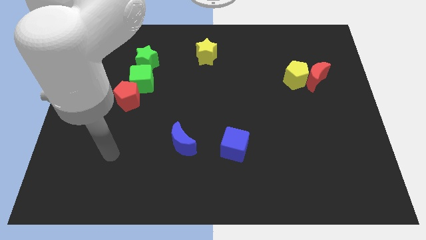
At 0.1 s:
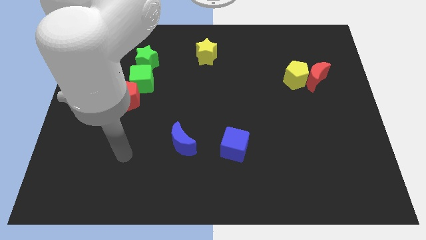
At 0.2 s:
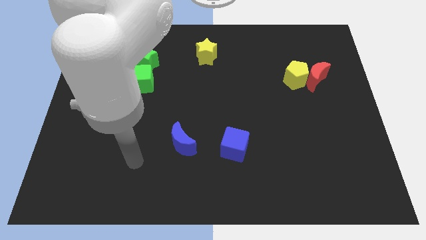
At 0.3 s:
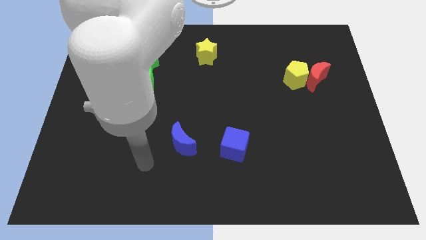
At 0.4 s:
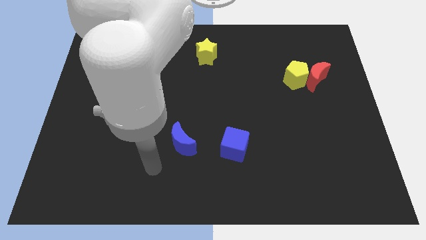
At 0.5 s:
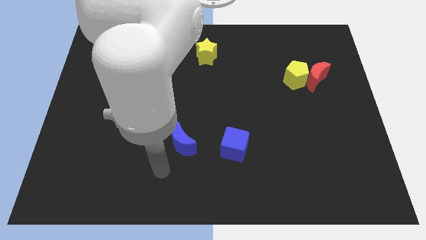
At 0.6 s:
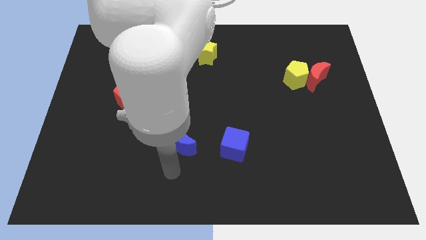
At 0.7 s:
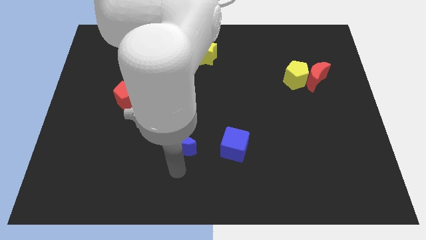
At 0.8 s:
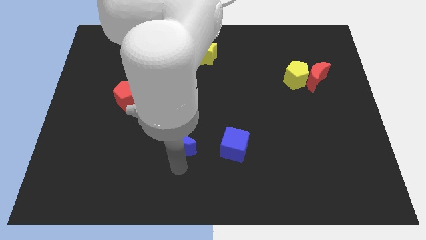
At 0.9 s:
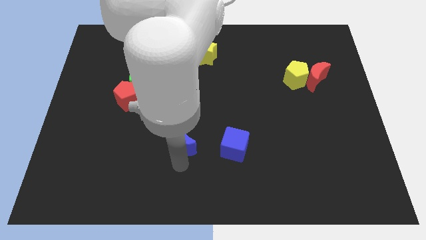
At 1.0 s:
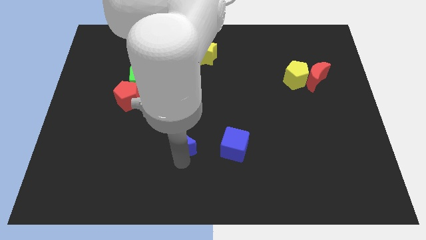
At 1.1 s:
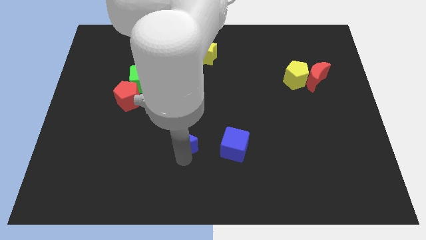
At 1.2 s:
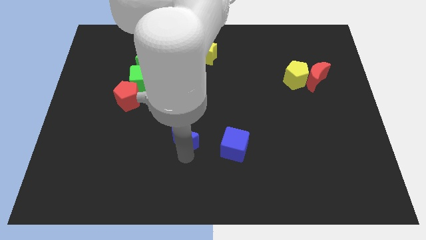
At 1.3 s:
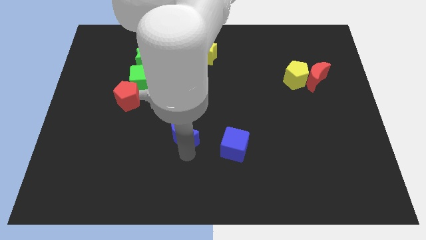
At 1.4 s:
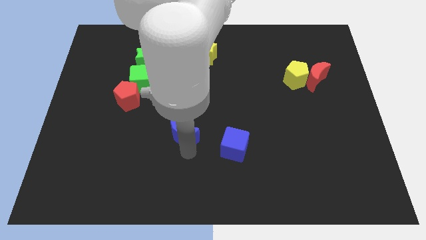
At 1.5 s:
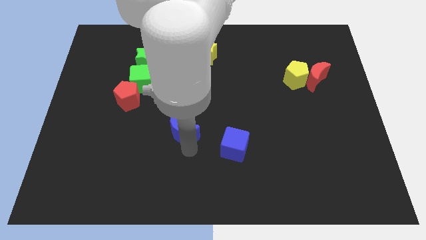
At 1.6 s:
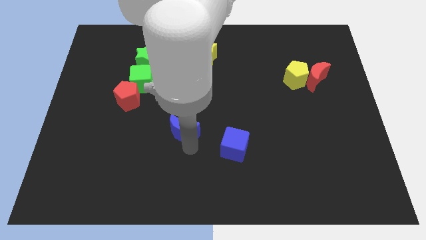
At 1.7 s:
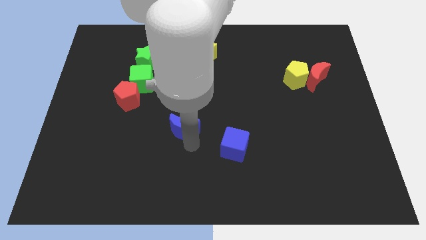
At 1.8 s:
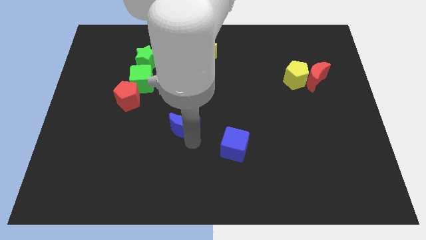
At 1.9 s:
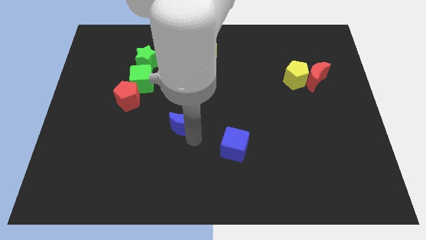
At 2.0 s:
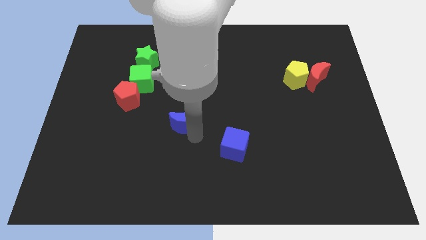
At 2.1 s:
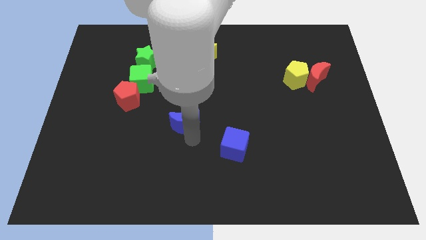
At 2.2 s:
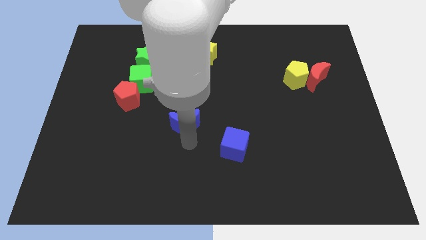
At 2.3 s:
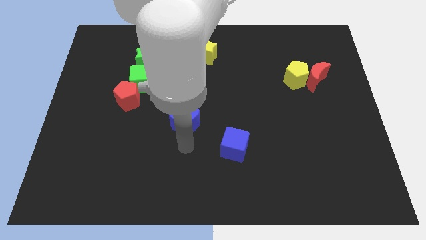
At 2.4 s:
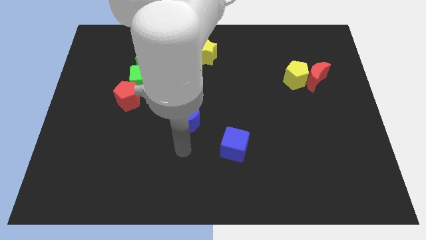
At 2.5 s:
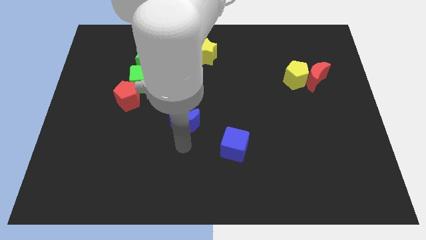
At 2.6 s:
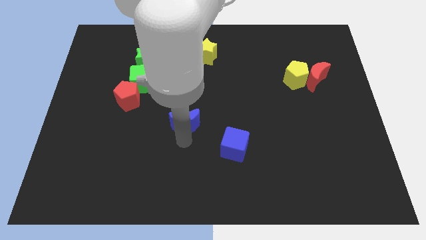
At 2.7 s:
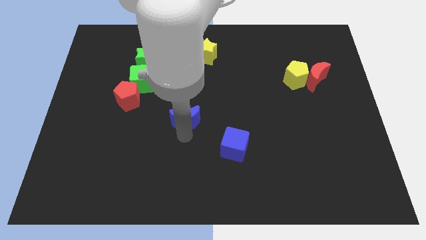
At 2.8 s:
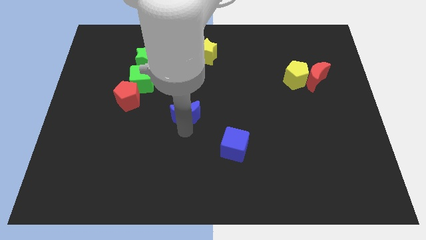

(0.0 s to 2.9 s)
move the blue moon upwards a little

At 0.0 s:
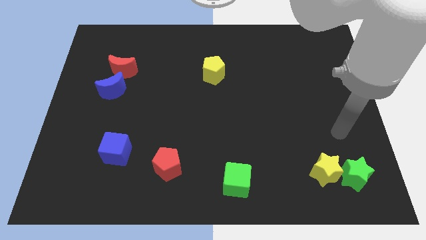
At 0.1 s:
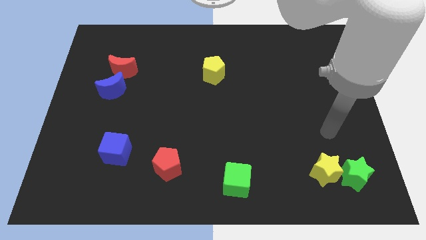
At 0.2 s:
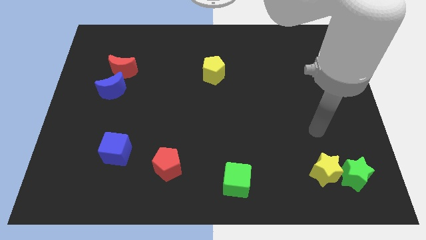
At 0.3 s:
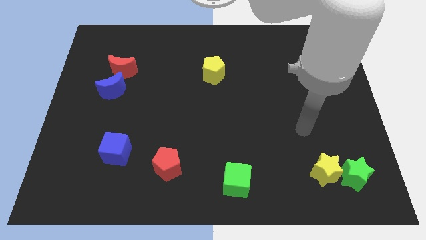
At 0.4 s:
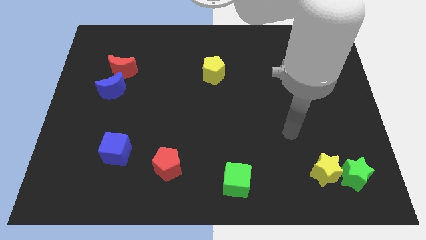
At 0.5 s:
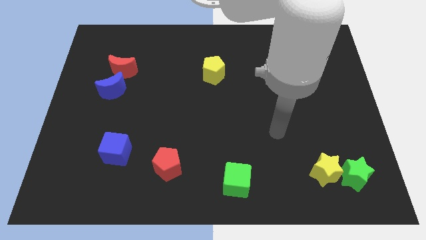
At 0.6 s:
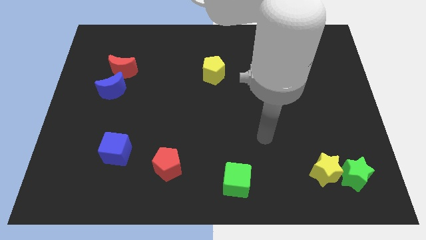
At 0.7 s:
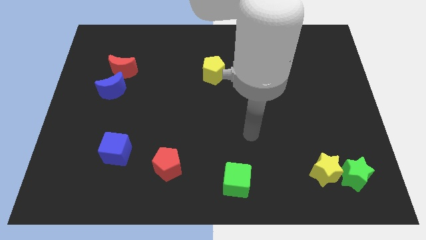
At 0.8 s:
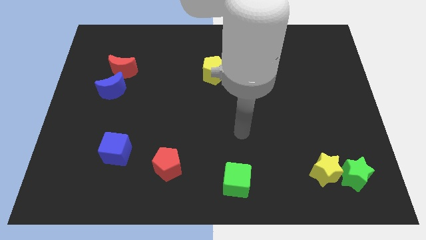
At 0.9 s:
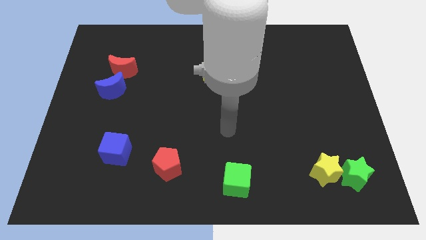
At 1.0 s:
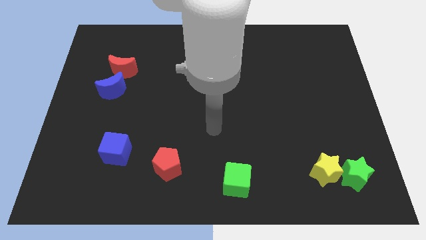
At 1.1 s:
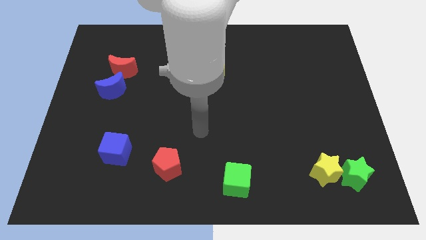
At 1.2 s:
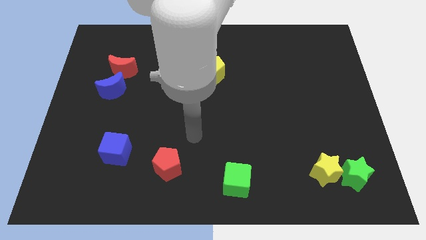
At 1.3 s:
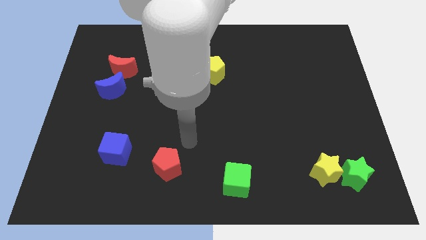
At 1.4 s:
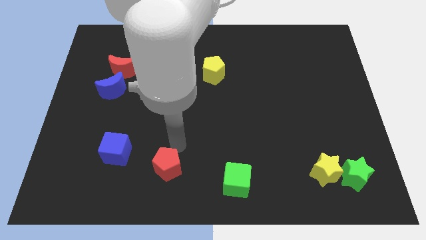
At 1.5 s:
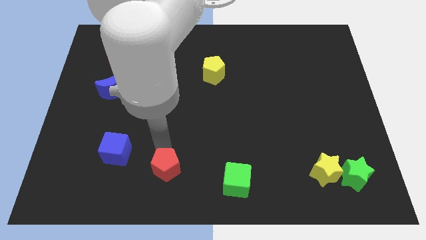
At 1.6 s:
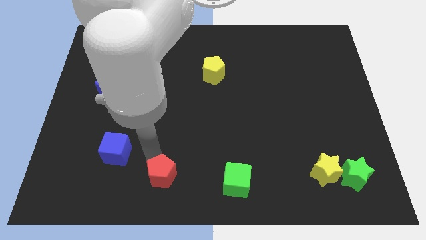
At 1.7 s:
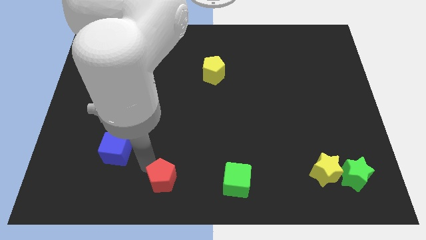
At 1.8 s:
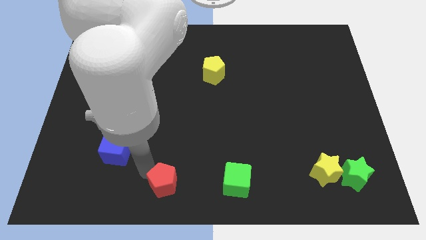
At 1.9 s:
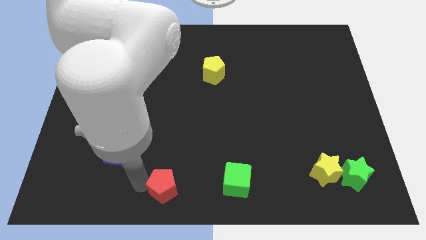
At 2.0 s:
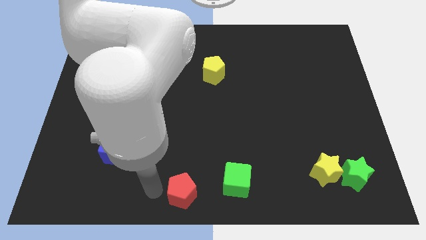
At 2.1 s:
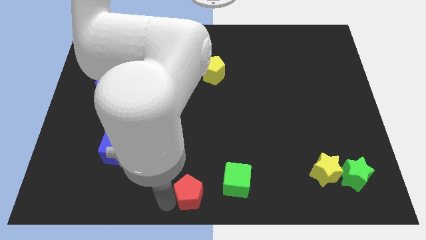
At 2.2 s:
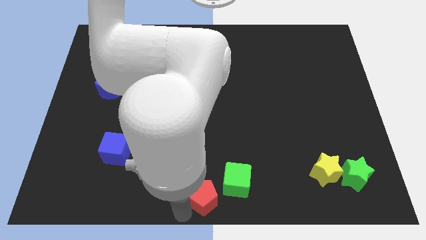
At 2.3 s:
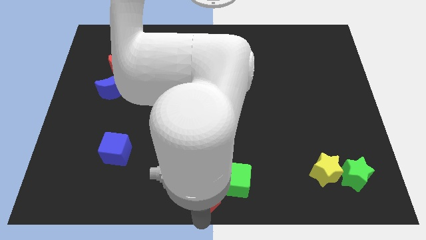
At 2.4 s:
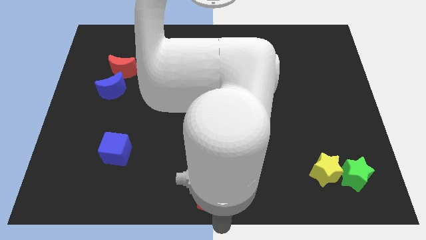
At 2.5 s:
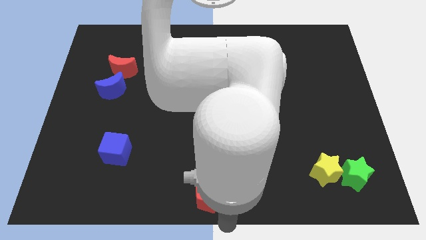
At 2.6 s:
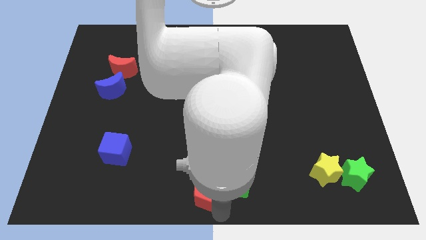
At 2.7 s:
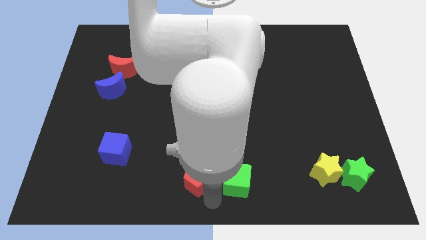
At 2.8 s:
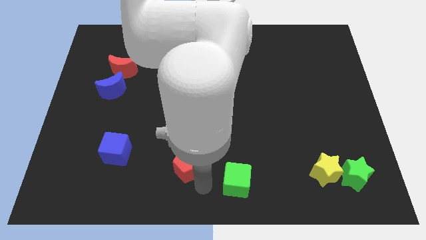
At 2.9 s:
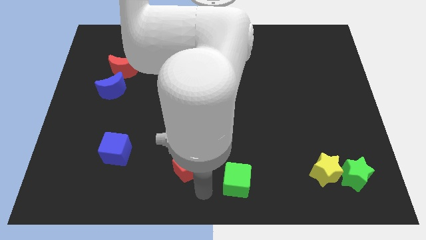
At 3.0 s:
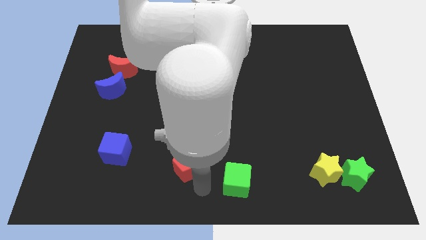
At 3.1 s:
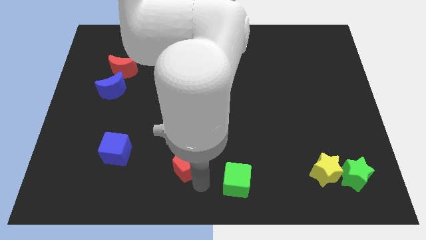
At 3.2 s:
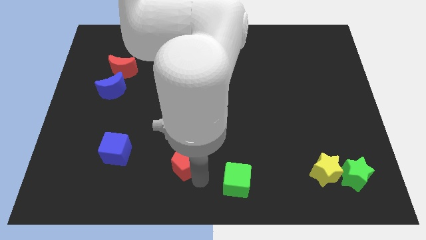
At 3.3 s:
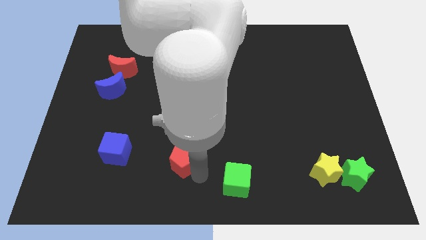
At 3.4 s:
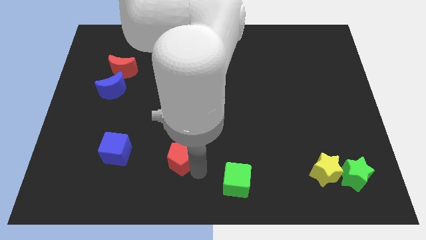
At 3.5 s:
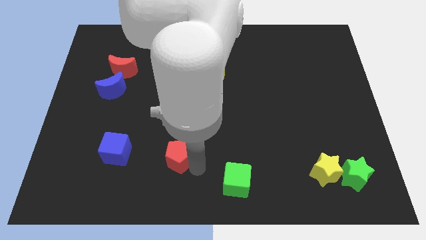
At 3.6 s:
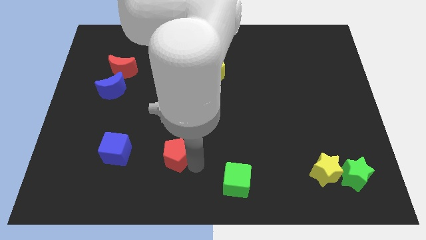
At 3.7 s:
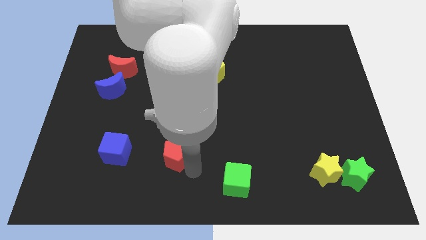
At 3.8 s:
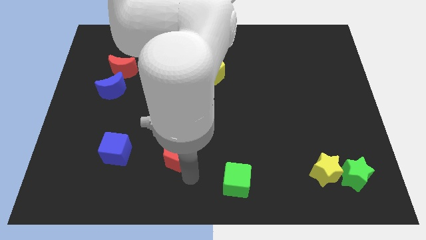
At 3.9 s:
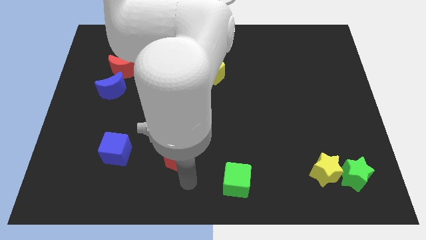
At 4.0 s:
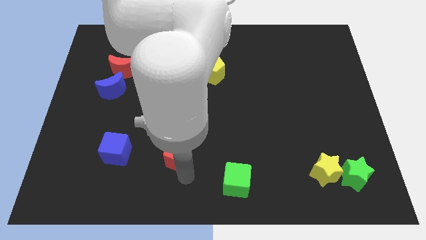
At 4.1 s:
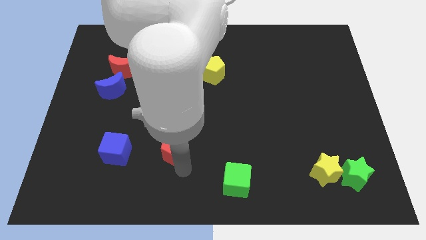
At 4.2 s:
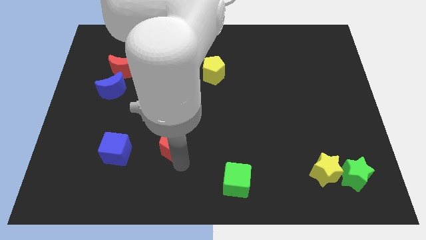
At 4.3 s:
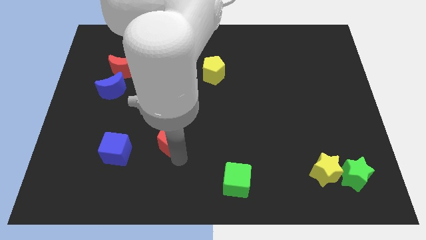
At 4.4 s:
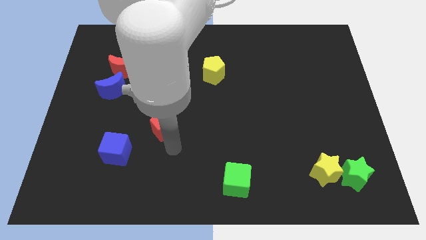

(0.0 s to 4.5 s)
push the red pentagon upwards a little bit

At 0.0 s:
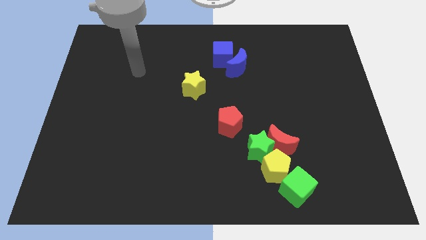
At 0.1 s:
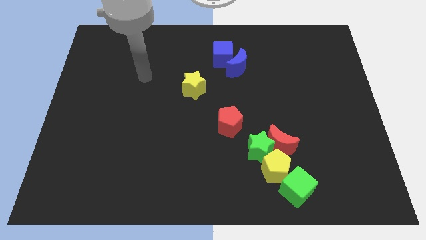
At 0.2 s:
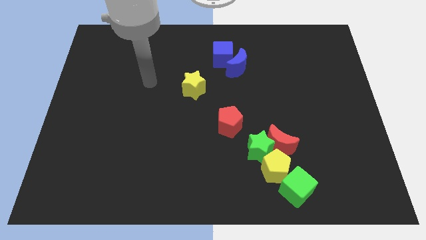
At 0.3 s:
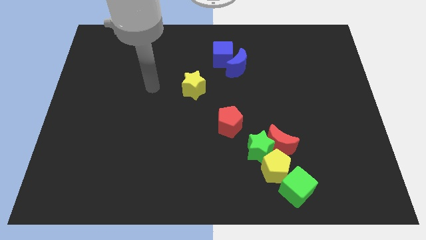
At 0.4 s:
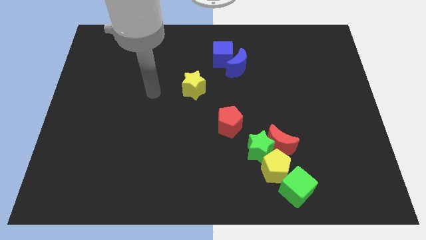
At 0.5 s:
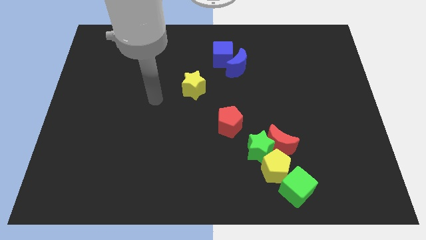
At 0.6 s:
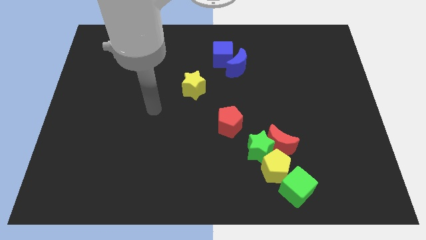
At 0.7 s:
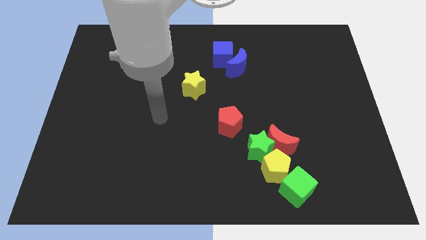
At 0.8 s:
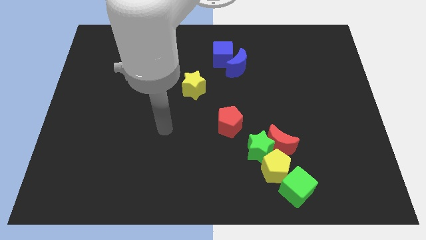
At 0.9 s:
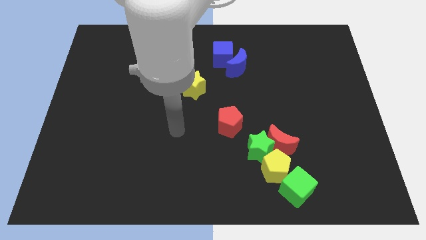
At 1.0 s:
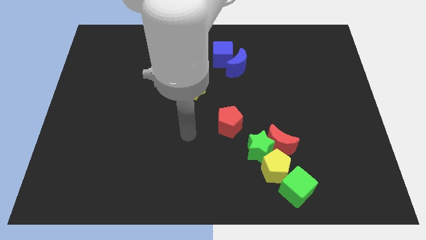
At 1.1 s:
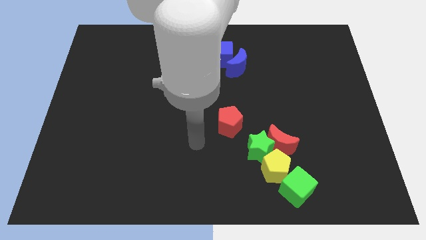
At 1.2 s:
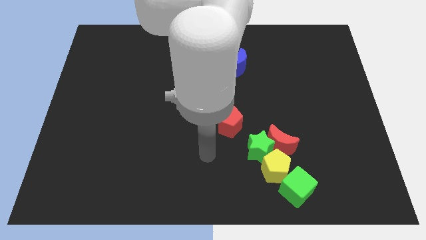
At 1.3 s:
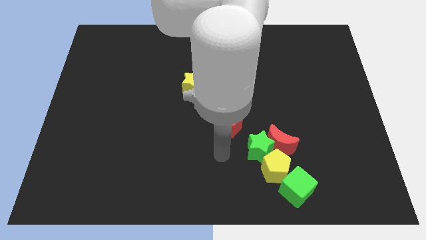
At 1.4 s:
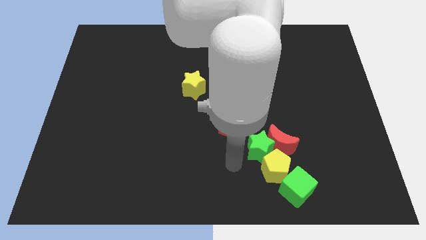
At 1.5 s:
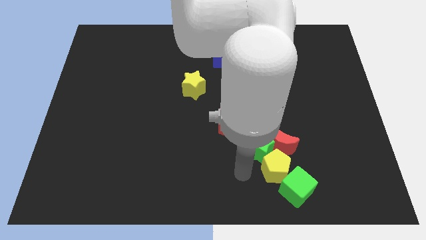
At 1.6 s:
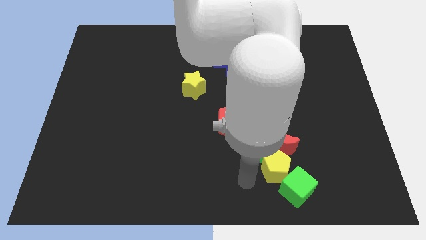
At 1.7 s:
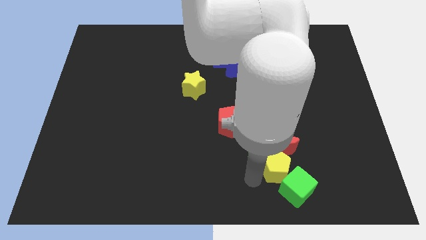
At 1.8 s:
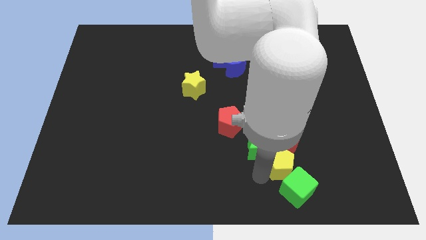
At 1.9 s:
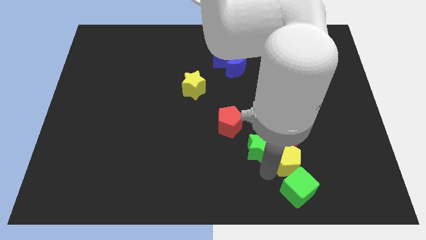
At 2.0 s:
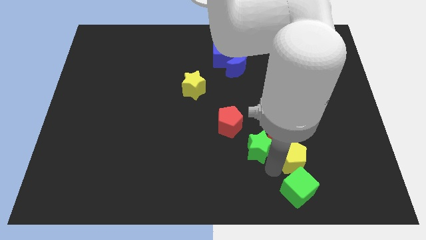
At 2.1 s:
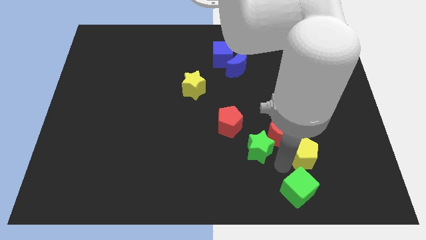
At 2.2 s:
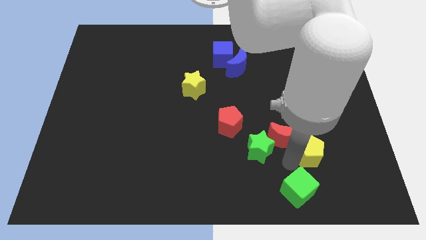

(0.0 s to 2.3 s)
move the yellow pentagon slightly up and right diagonally
